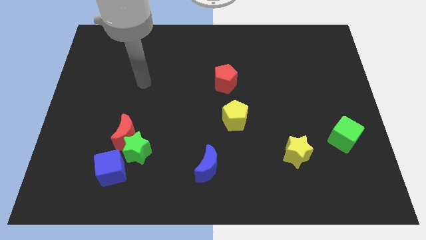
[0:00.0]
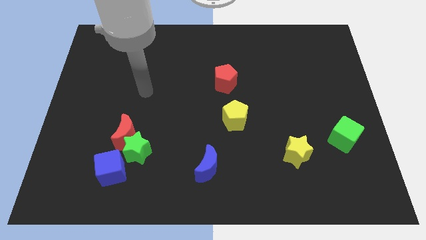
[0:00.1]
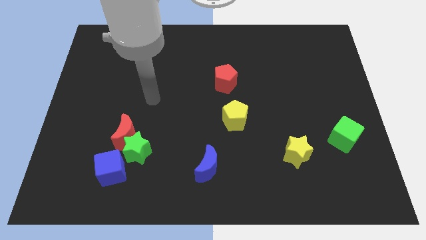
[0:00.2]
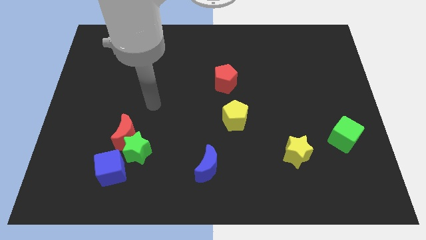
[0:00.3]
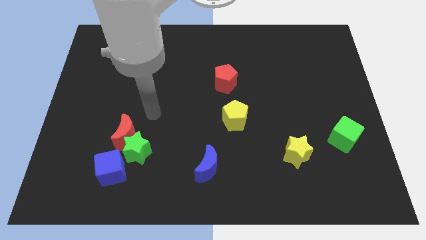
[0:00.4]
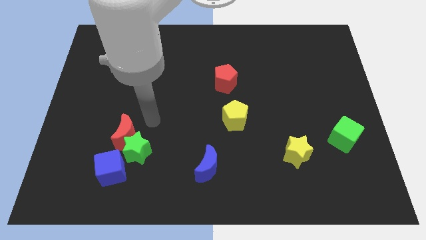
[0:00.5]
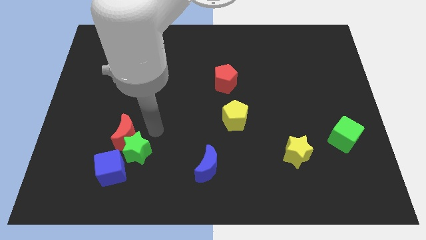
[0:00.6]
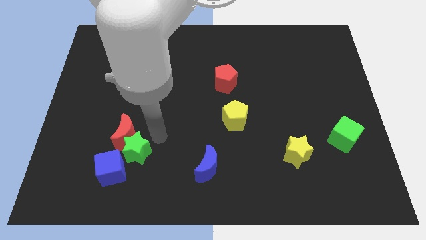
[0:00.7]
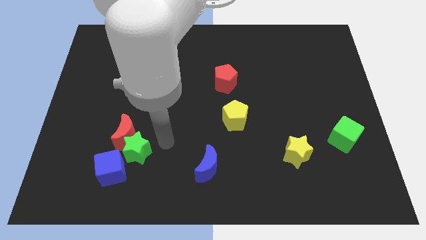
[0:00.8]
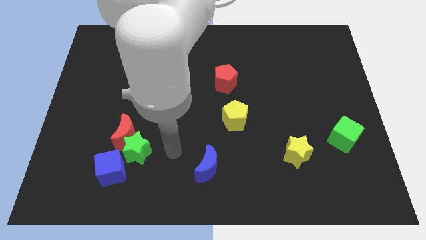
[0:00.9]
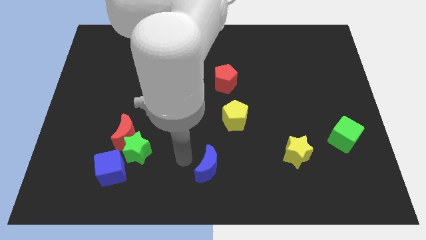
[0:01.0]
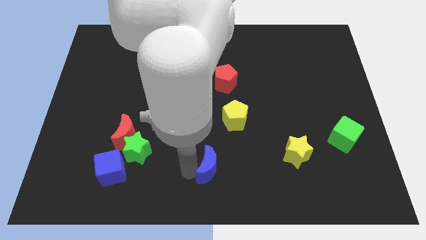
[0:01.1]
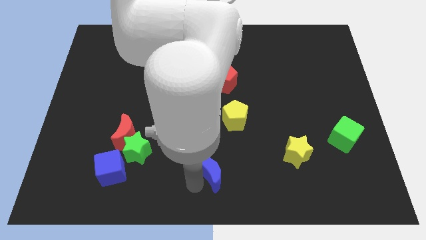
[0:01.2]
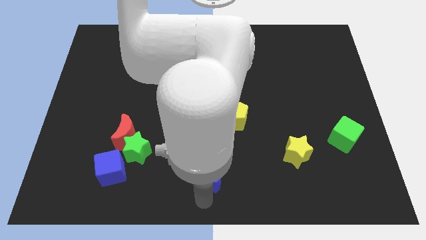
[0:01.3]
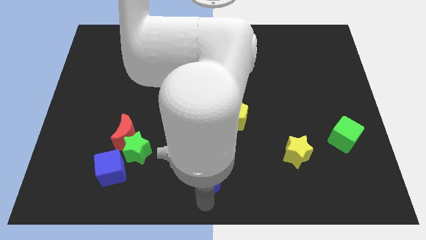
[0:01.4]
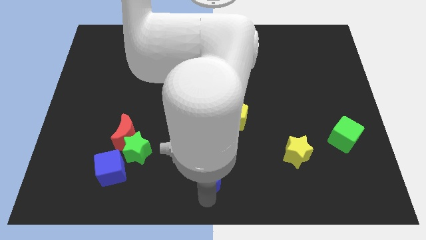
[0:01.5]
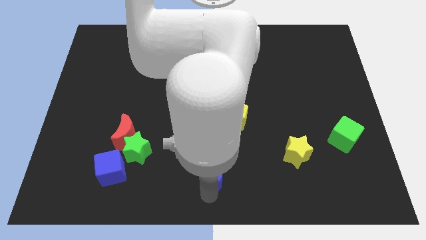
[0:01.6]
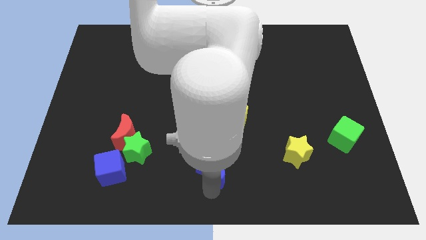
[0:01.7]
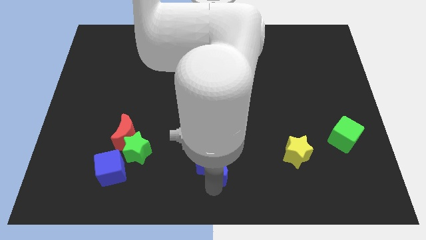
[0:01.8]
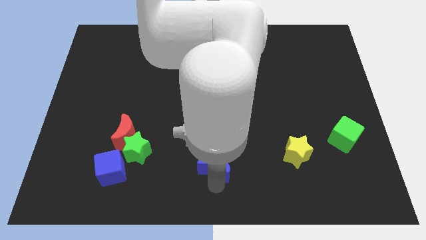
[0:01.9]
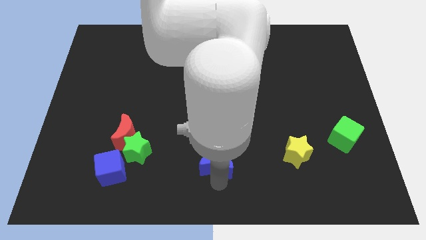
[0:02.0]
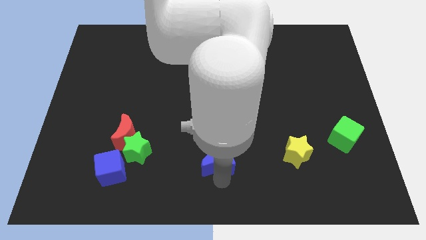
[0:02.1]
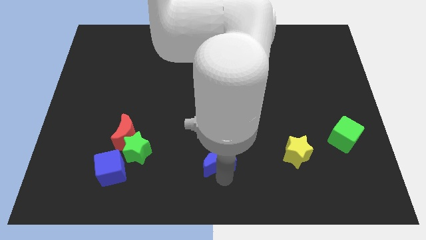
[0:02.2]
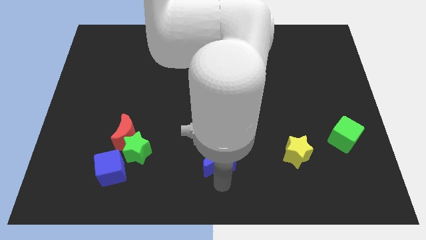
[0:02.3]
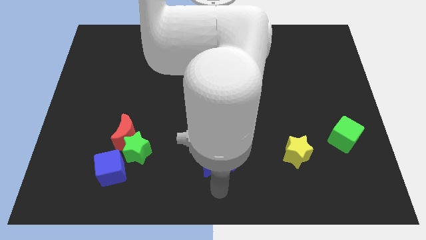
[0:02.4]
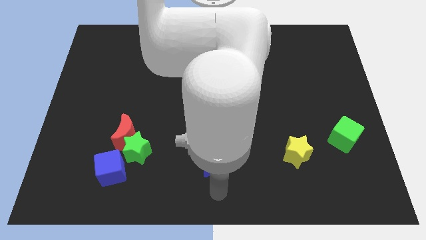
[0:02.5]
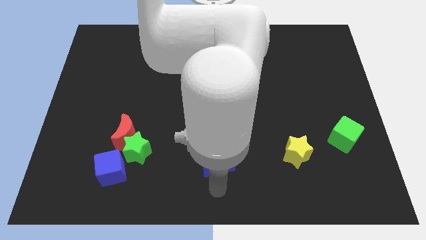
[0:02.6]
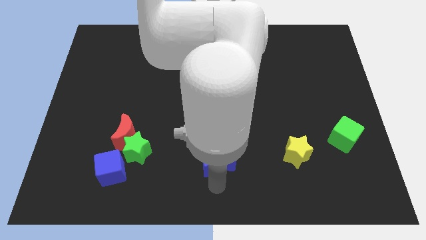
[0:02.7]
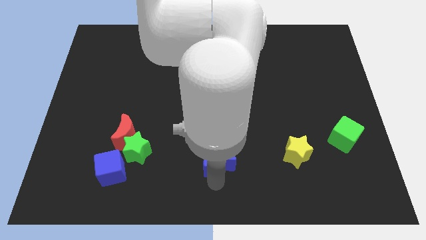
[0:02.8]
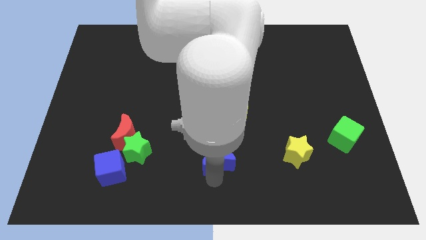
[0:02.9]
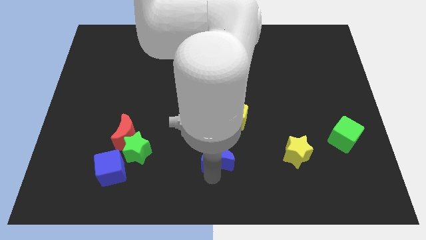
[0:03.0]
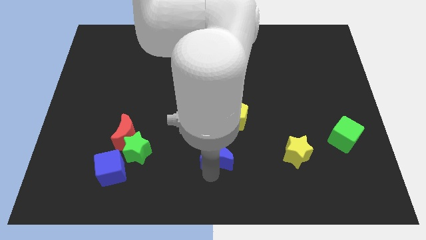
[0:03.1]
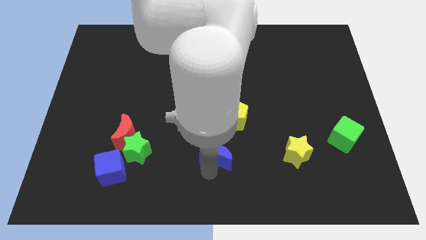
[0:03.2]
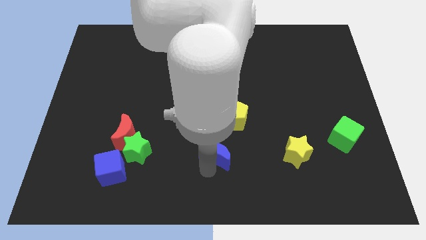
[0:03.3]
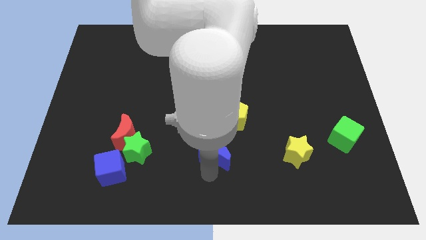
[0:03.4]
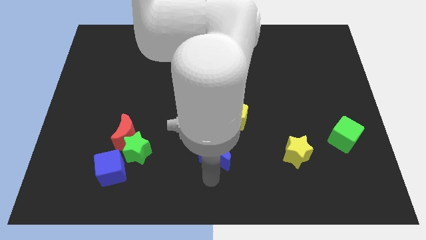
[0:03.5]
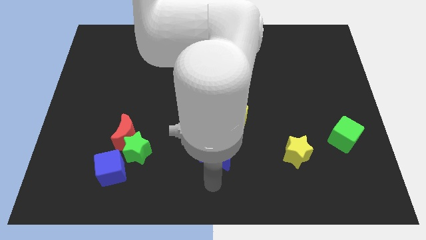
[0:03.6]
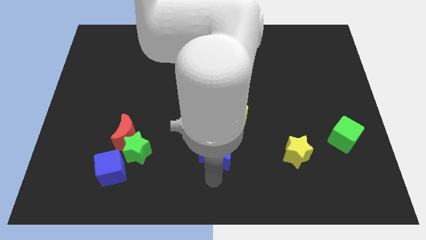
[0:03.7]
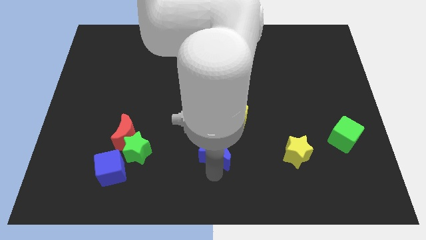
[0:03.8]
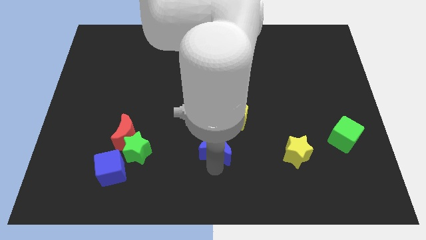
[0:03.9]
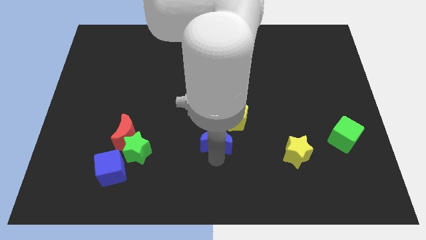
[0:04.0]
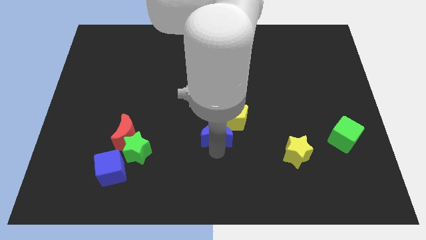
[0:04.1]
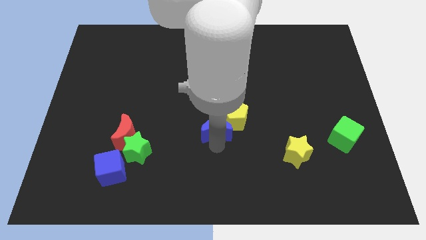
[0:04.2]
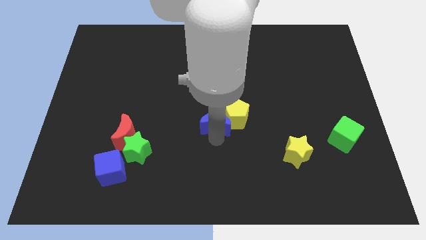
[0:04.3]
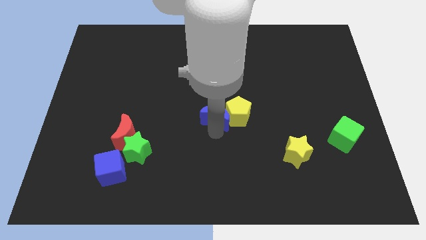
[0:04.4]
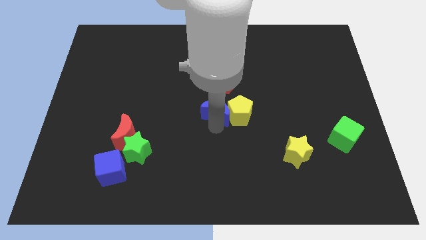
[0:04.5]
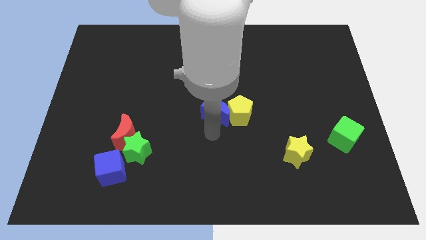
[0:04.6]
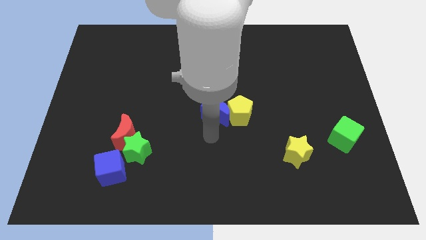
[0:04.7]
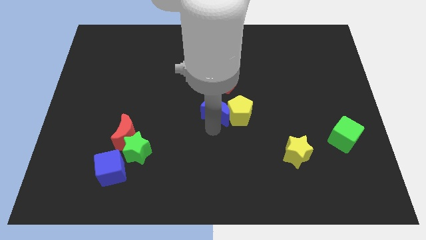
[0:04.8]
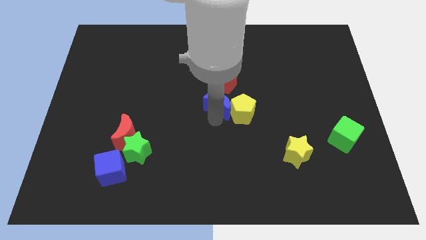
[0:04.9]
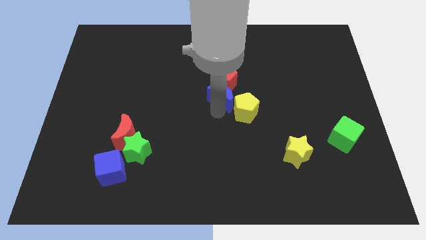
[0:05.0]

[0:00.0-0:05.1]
put the blue moon close to the red pentagon

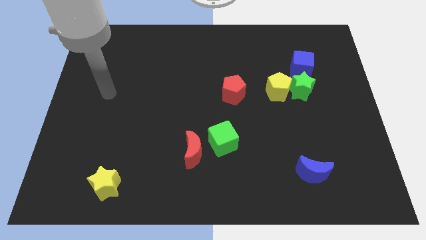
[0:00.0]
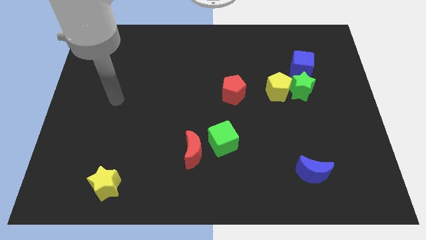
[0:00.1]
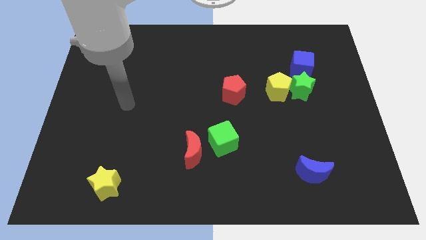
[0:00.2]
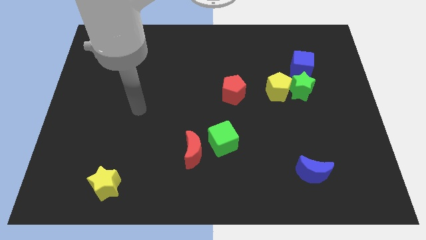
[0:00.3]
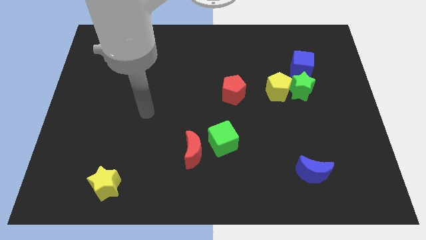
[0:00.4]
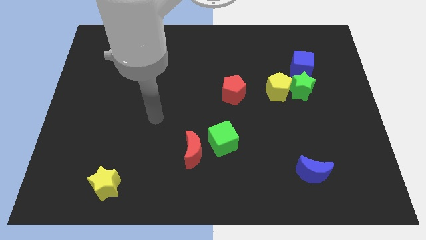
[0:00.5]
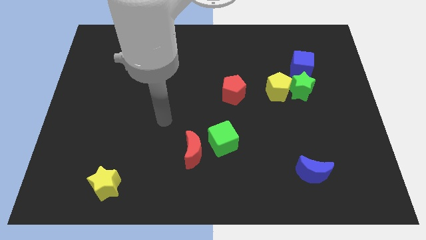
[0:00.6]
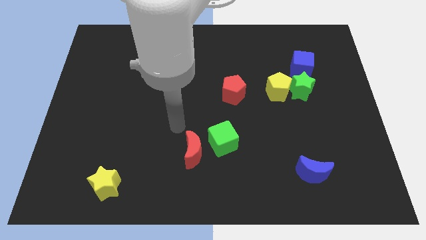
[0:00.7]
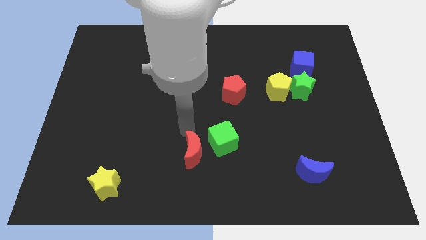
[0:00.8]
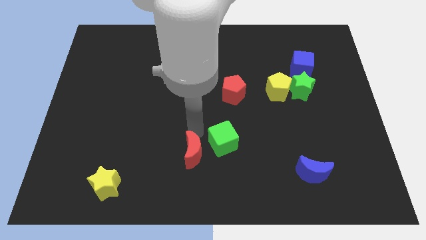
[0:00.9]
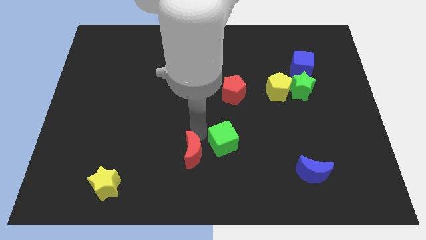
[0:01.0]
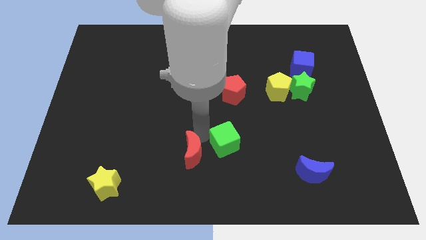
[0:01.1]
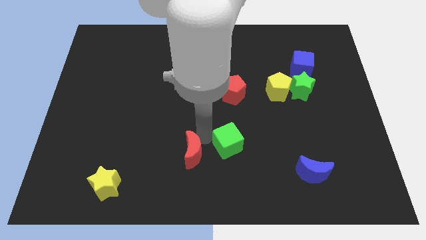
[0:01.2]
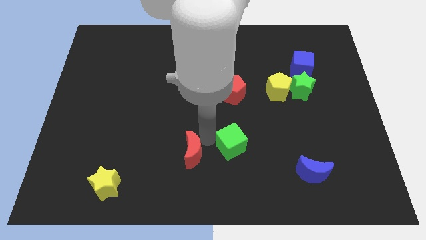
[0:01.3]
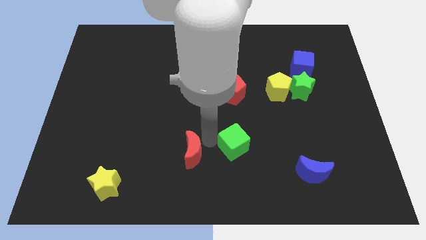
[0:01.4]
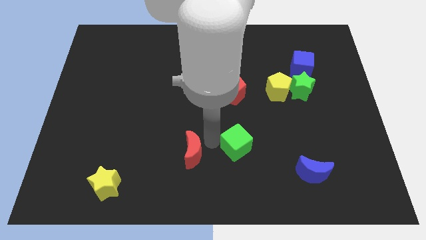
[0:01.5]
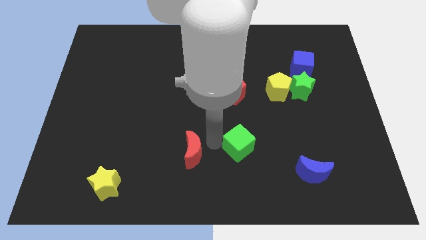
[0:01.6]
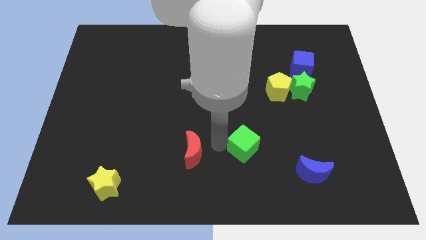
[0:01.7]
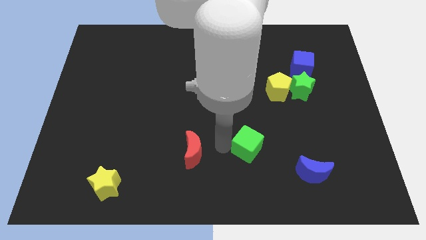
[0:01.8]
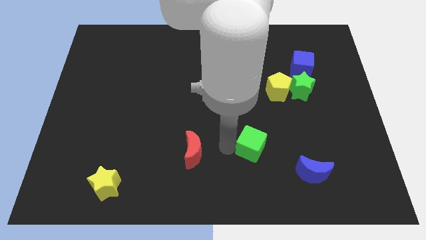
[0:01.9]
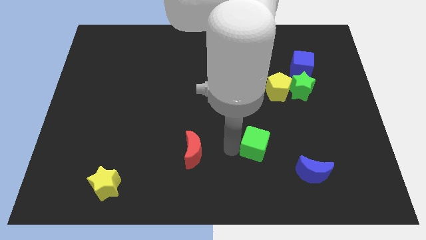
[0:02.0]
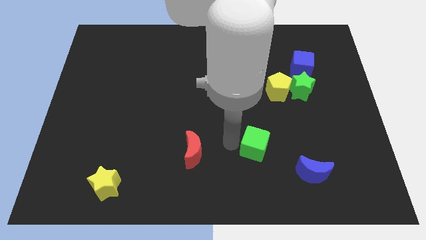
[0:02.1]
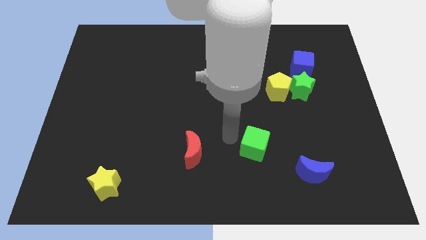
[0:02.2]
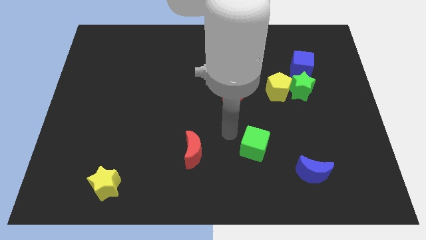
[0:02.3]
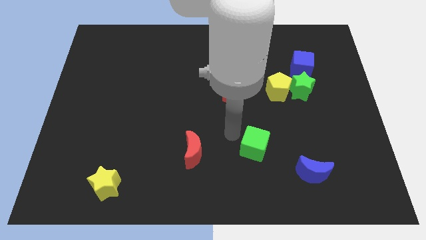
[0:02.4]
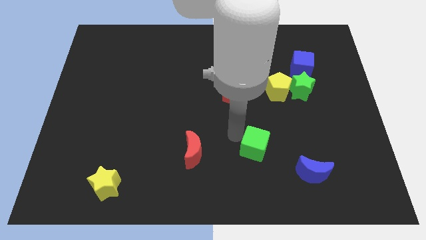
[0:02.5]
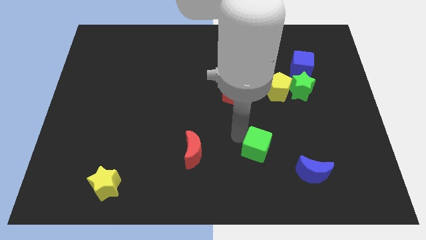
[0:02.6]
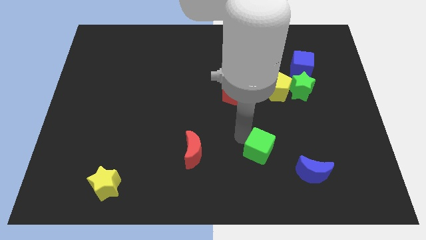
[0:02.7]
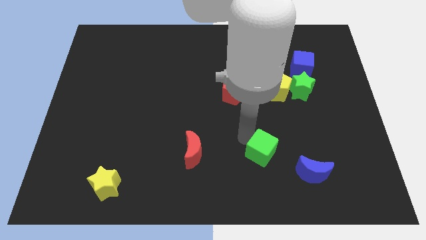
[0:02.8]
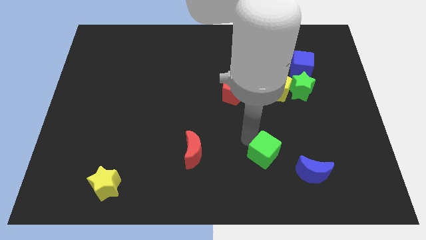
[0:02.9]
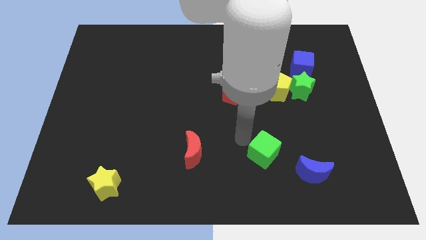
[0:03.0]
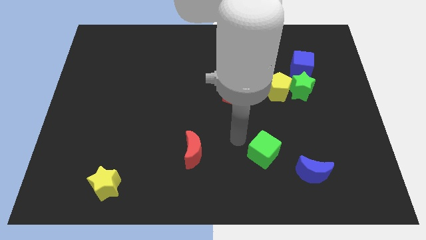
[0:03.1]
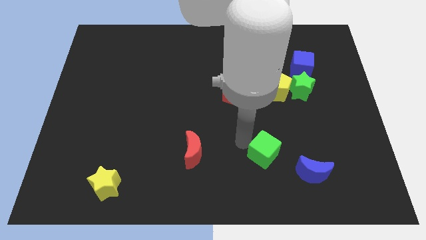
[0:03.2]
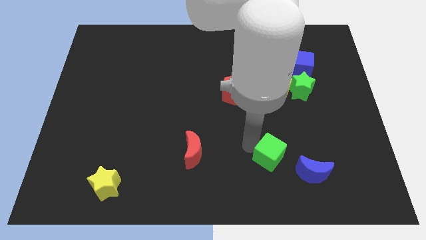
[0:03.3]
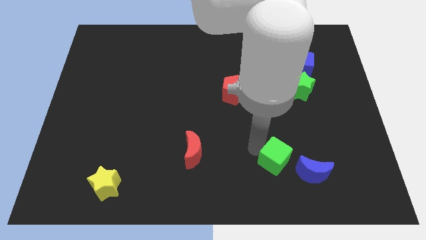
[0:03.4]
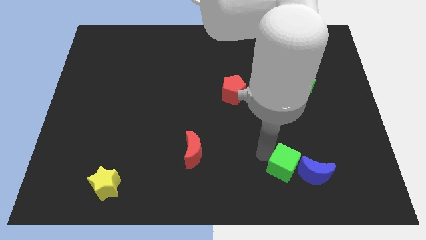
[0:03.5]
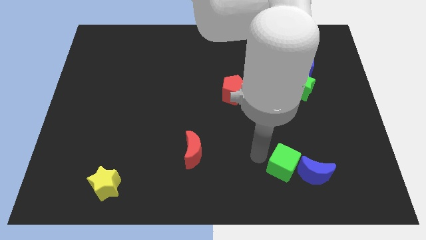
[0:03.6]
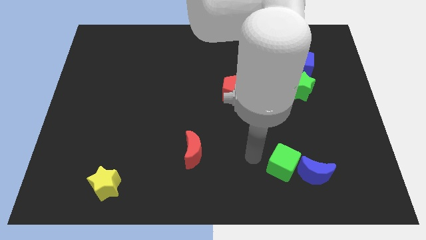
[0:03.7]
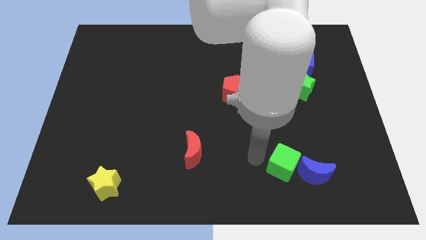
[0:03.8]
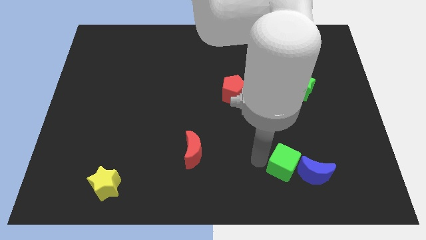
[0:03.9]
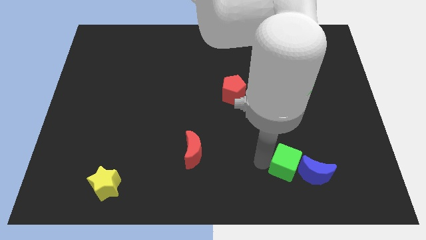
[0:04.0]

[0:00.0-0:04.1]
push the green cube to the blue moon
